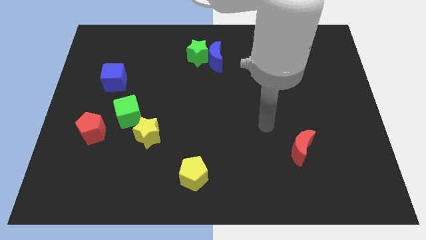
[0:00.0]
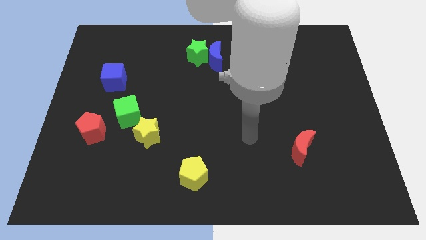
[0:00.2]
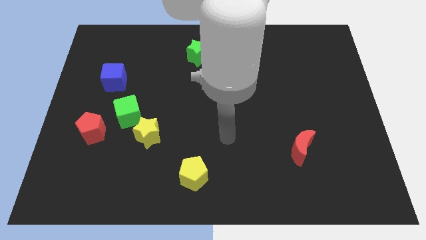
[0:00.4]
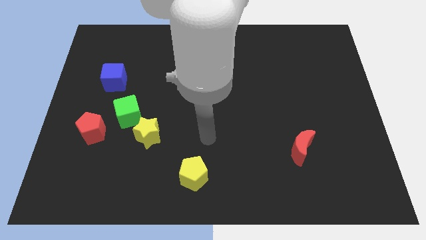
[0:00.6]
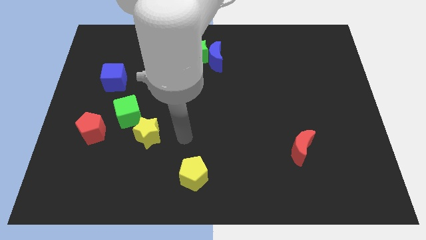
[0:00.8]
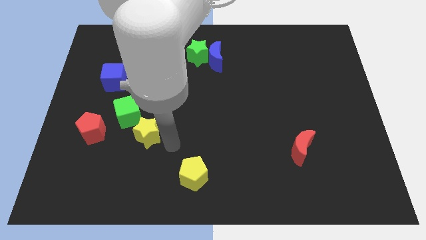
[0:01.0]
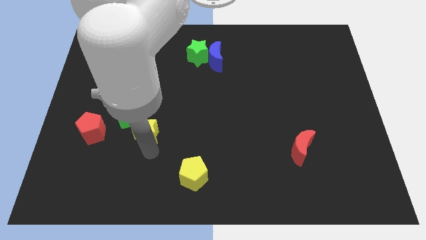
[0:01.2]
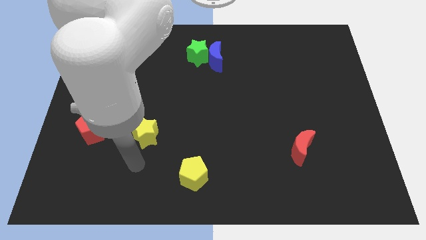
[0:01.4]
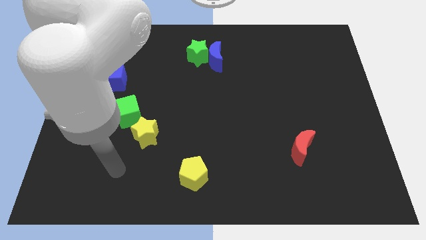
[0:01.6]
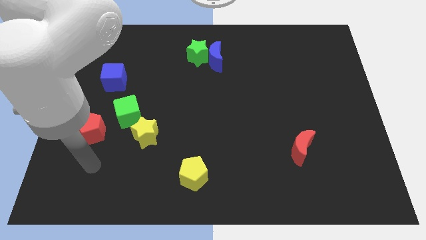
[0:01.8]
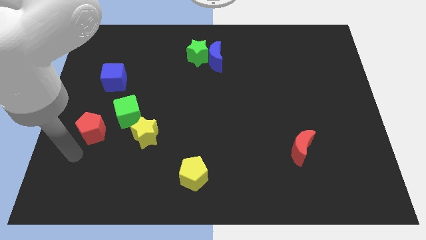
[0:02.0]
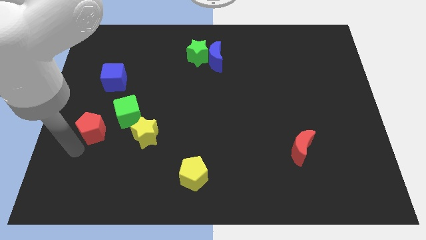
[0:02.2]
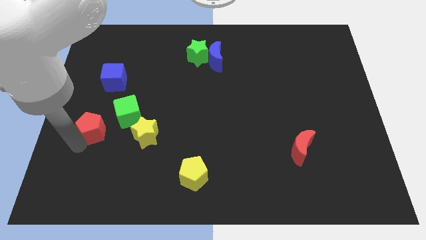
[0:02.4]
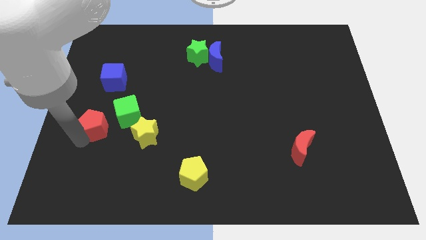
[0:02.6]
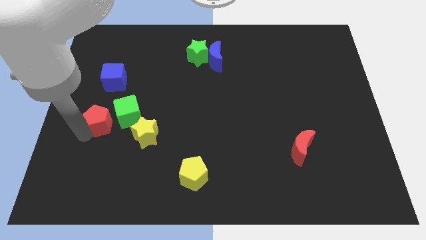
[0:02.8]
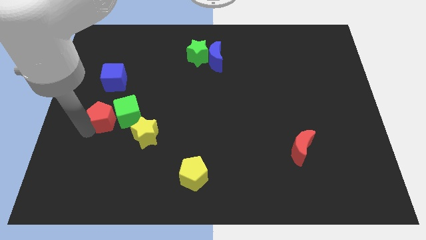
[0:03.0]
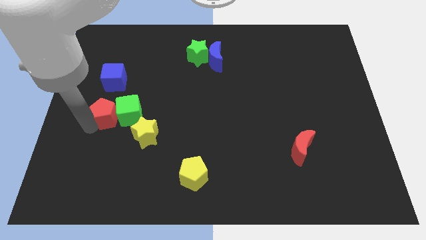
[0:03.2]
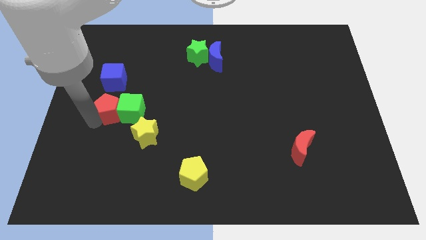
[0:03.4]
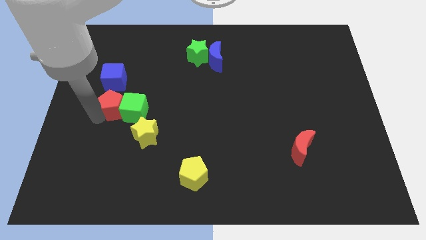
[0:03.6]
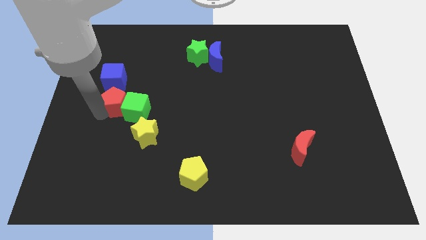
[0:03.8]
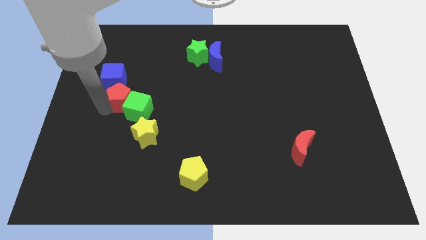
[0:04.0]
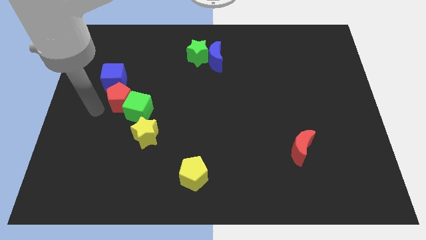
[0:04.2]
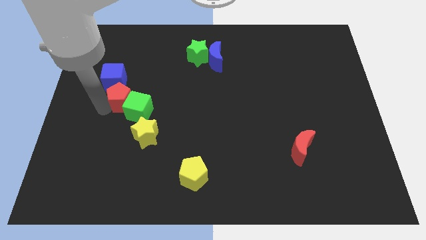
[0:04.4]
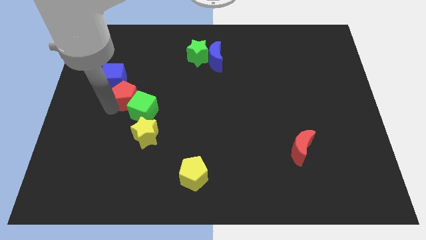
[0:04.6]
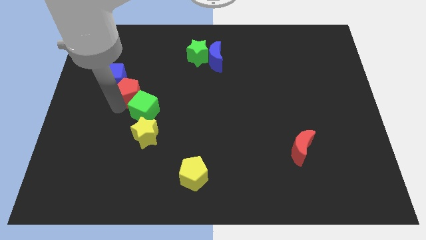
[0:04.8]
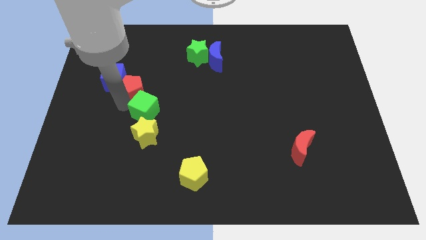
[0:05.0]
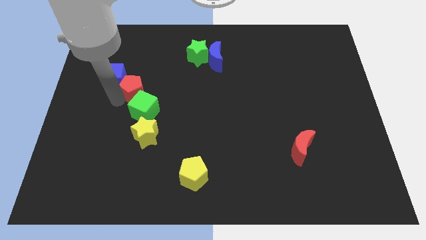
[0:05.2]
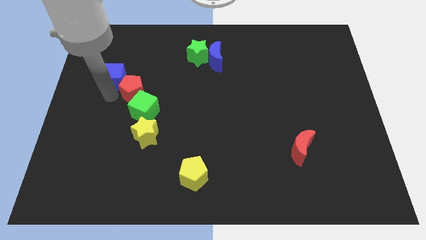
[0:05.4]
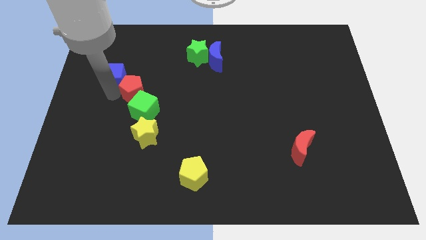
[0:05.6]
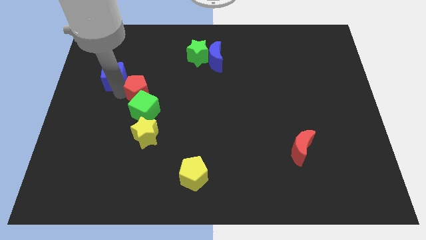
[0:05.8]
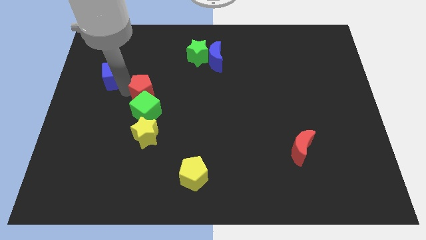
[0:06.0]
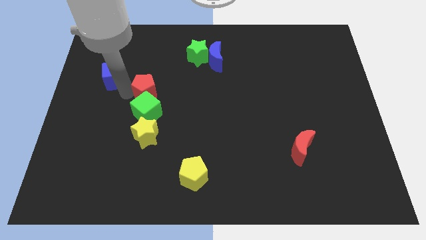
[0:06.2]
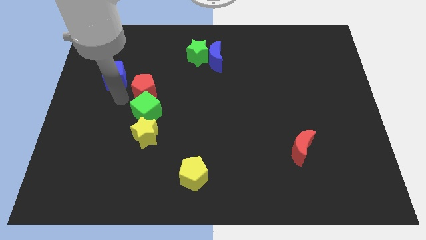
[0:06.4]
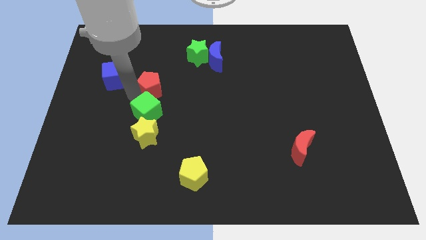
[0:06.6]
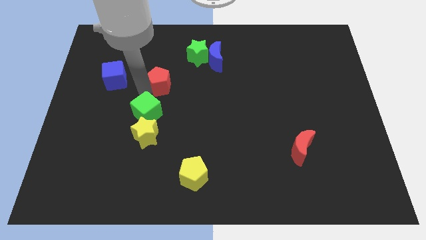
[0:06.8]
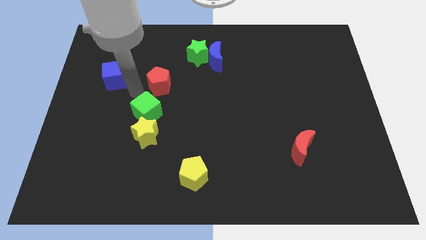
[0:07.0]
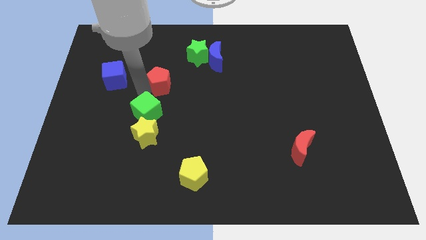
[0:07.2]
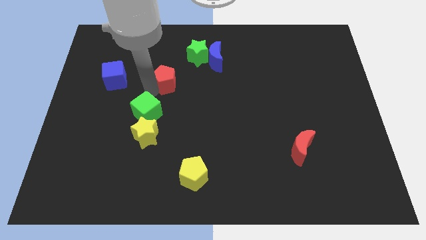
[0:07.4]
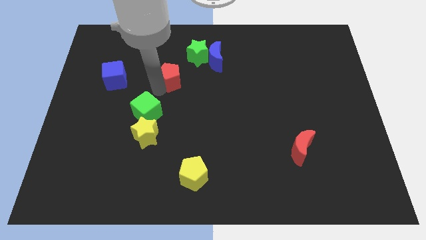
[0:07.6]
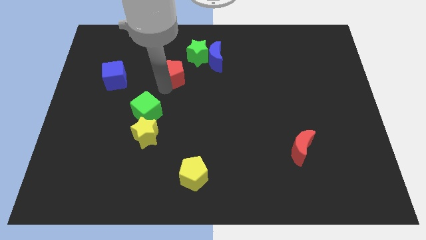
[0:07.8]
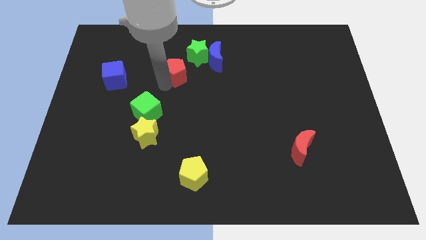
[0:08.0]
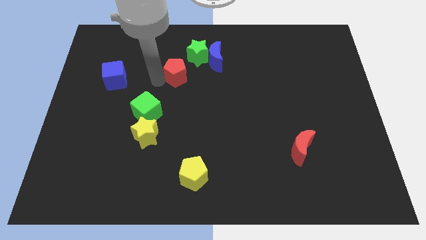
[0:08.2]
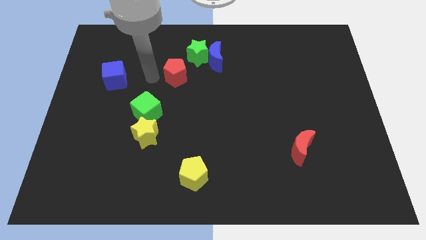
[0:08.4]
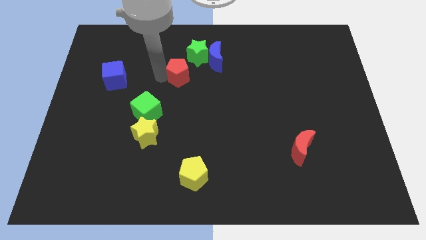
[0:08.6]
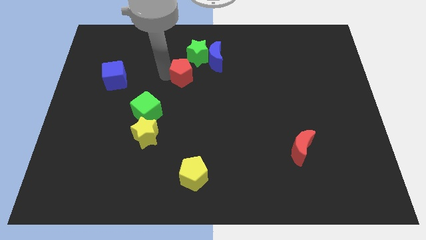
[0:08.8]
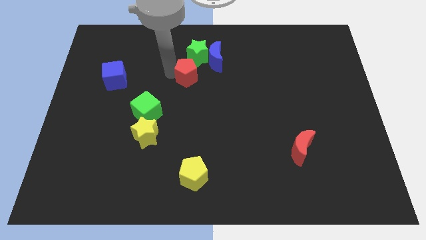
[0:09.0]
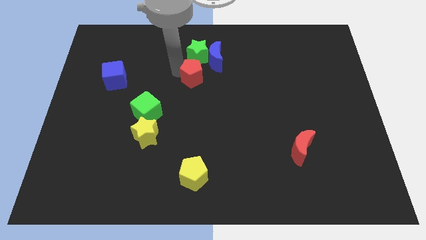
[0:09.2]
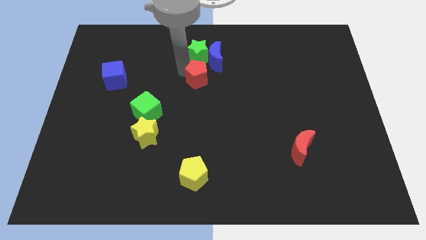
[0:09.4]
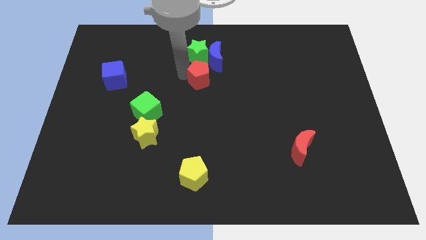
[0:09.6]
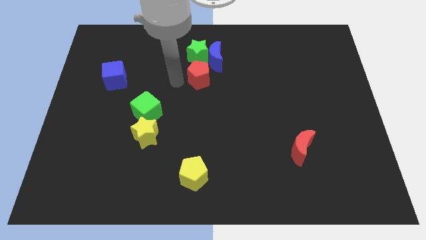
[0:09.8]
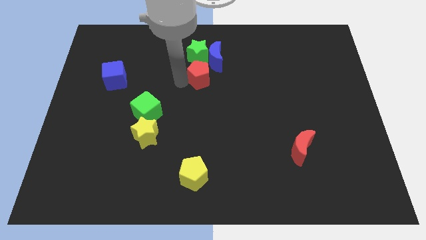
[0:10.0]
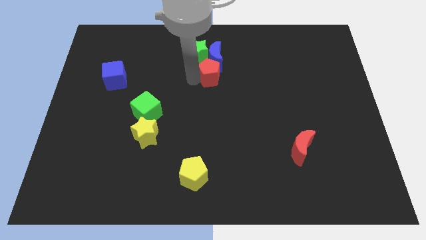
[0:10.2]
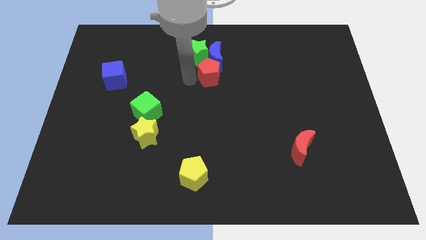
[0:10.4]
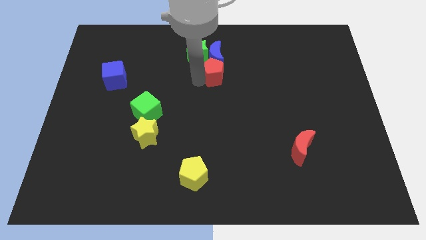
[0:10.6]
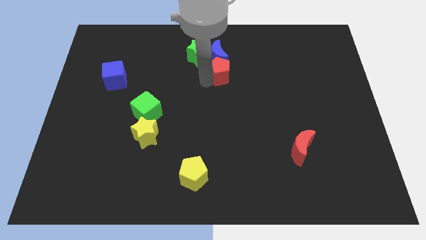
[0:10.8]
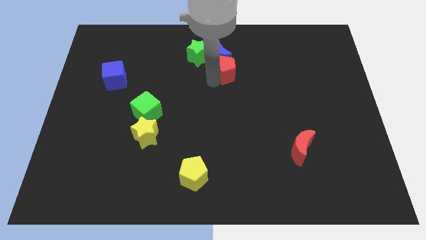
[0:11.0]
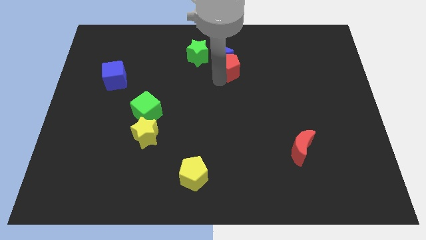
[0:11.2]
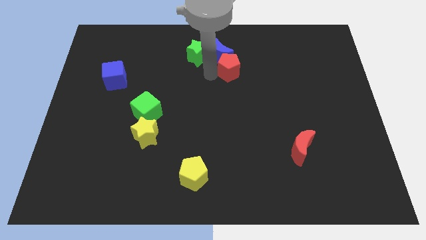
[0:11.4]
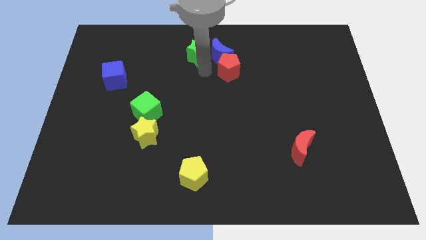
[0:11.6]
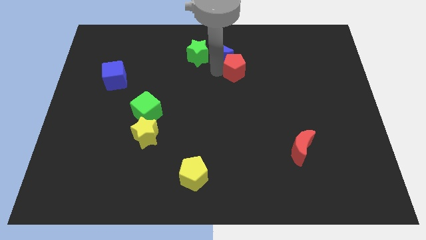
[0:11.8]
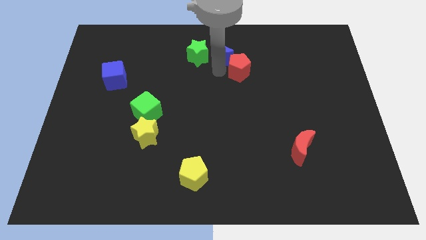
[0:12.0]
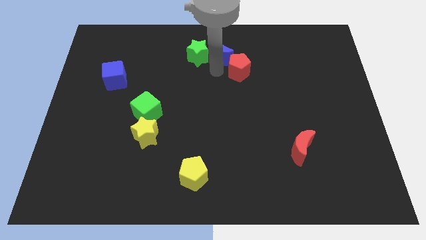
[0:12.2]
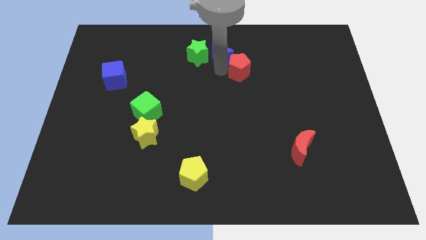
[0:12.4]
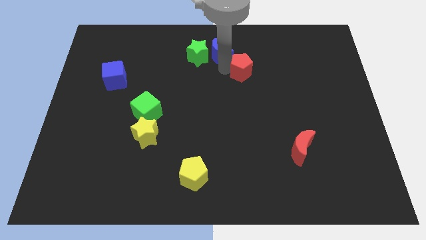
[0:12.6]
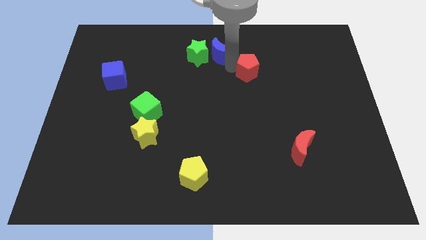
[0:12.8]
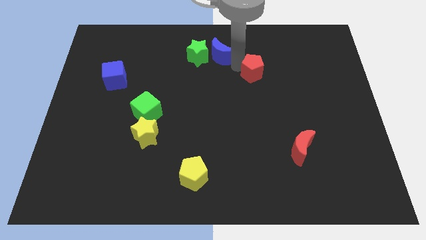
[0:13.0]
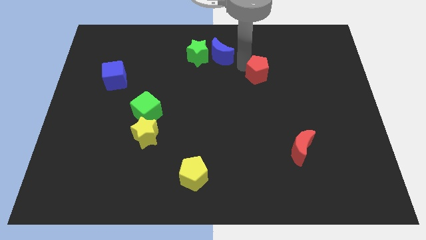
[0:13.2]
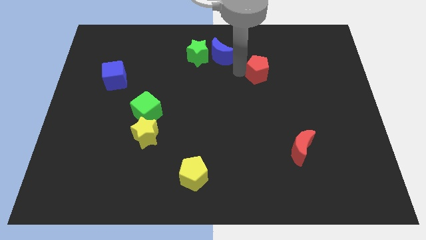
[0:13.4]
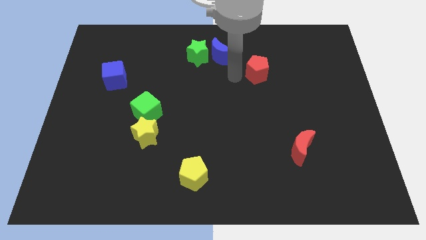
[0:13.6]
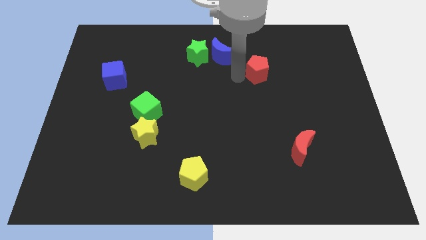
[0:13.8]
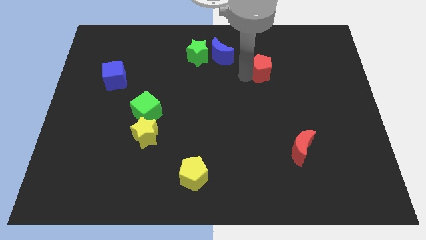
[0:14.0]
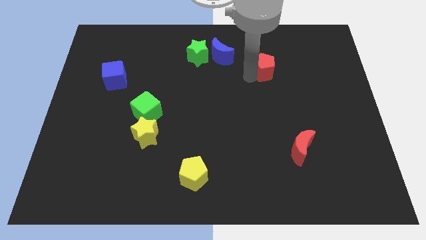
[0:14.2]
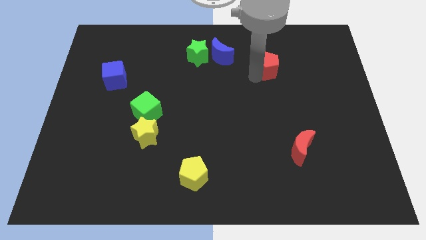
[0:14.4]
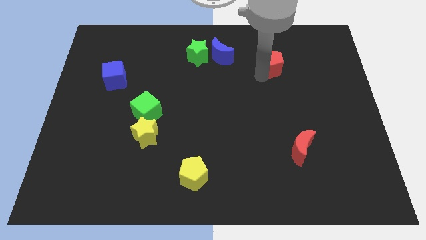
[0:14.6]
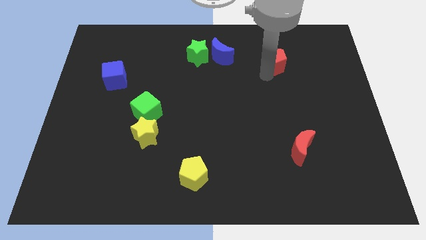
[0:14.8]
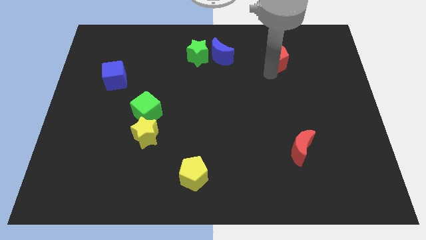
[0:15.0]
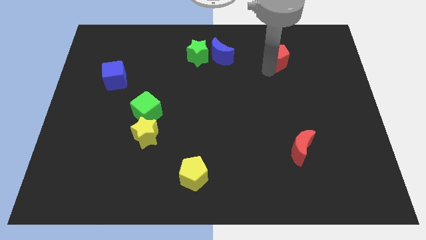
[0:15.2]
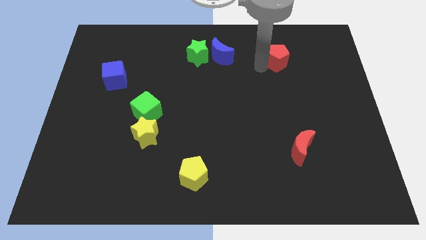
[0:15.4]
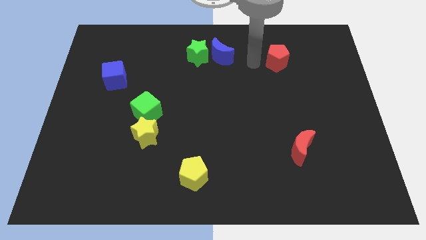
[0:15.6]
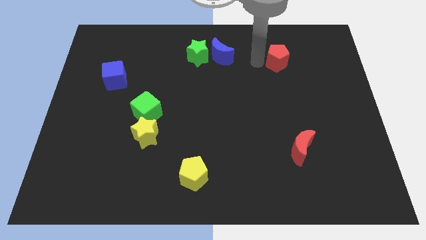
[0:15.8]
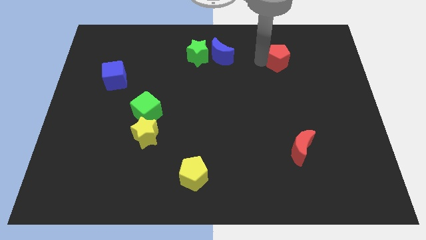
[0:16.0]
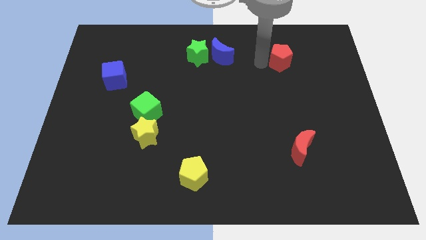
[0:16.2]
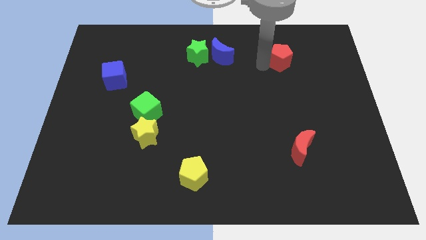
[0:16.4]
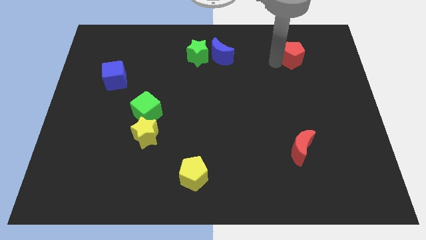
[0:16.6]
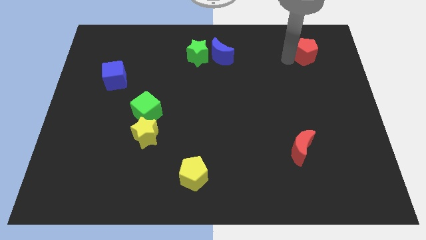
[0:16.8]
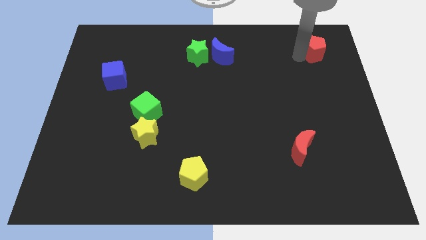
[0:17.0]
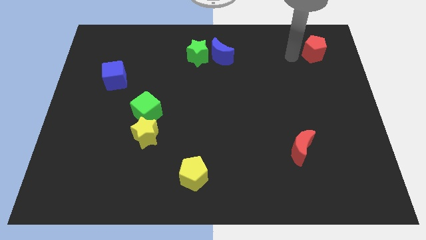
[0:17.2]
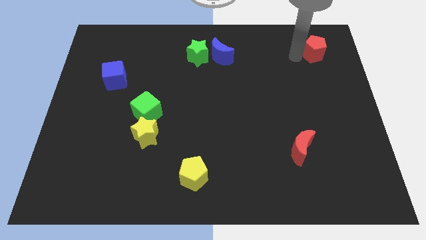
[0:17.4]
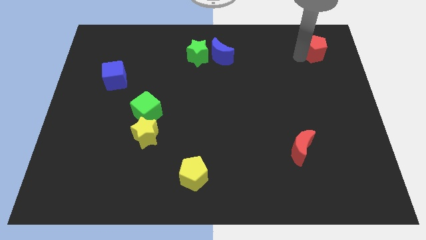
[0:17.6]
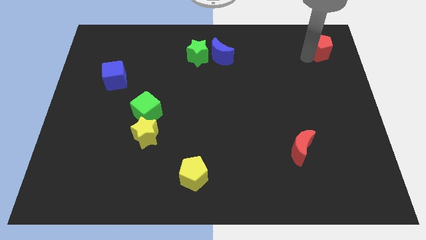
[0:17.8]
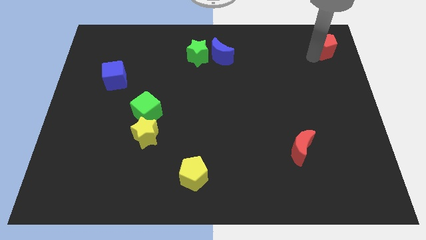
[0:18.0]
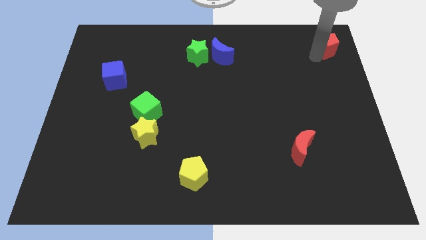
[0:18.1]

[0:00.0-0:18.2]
put the red pentagon to the top right corner
